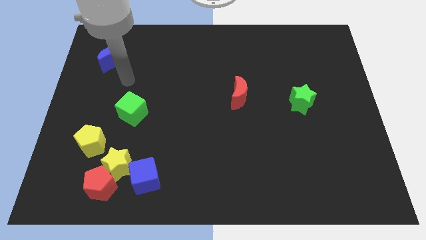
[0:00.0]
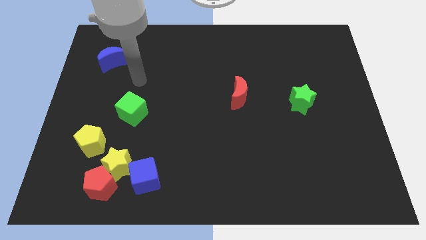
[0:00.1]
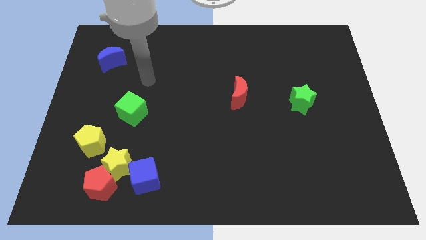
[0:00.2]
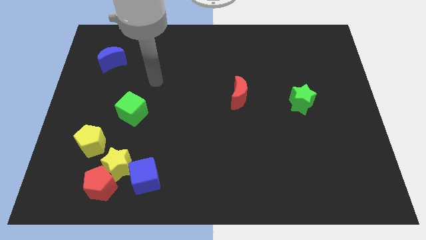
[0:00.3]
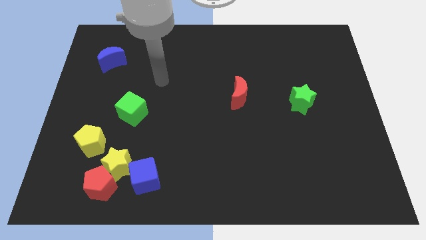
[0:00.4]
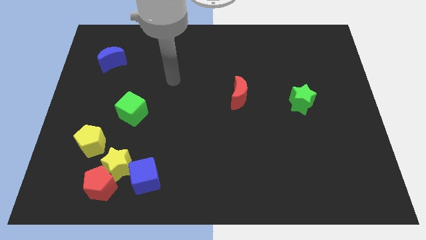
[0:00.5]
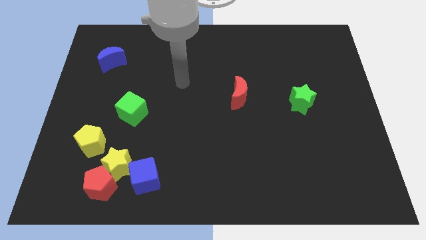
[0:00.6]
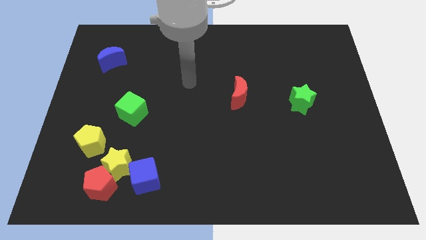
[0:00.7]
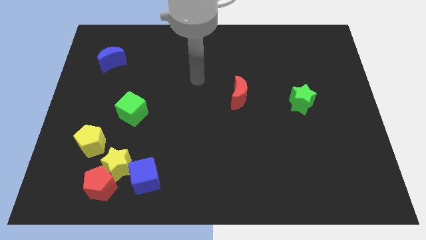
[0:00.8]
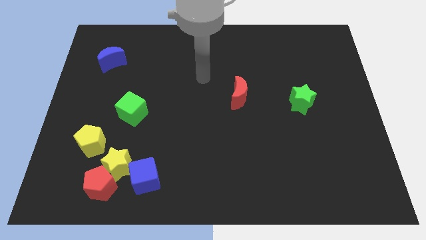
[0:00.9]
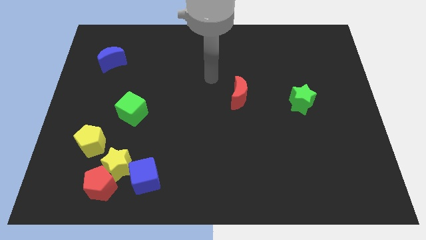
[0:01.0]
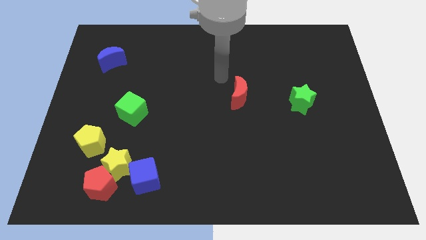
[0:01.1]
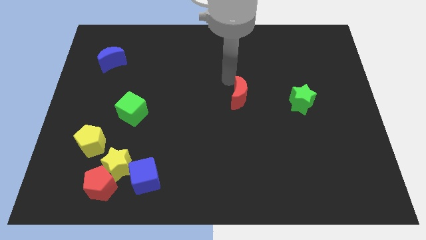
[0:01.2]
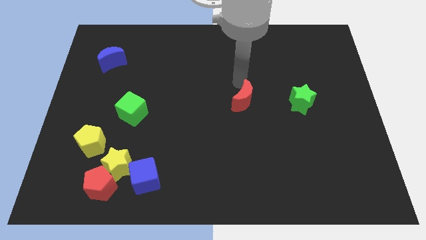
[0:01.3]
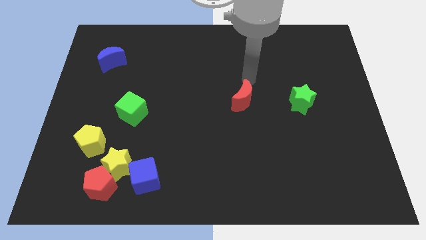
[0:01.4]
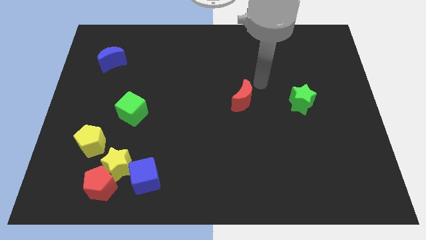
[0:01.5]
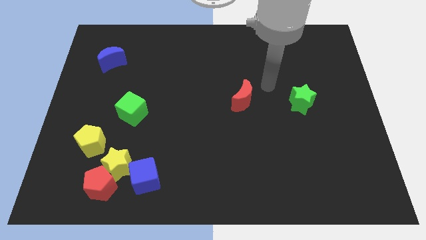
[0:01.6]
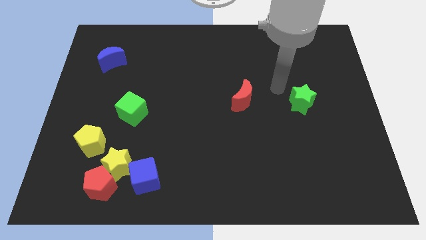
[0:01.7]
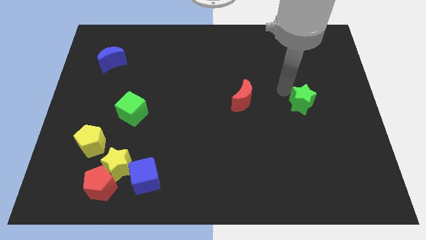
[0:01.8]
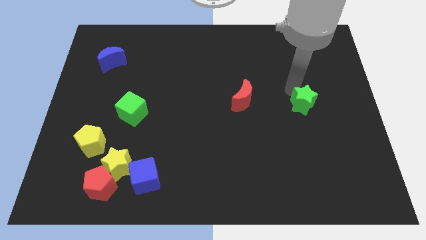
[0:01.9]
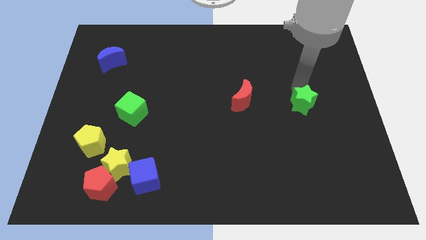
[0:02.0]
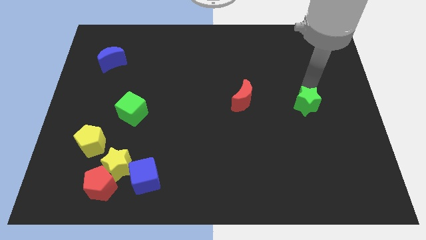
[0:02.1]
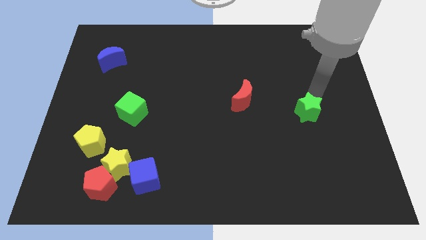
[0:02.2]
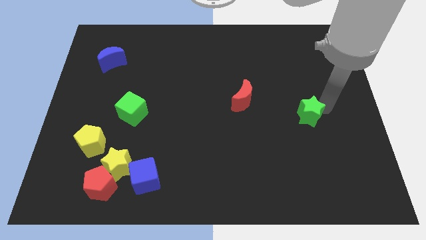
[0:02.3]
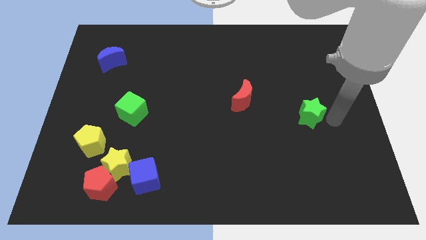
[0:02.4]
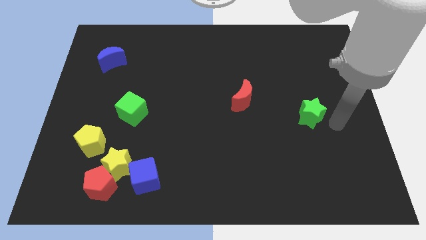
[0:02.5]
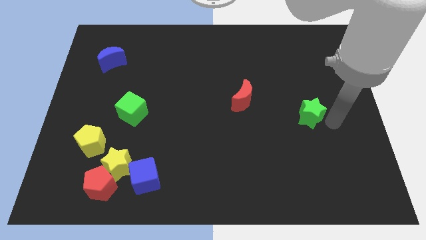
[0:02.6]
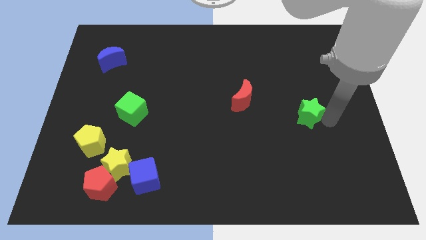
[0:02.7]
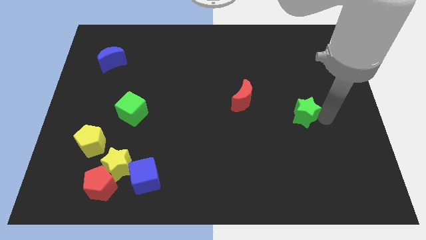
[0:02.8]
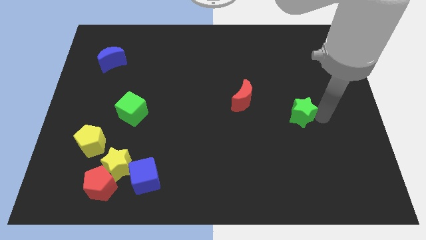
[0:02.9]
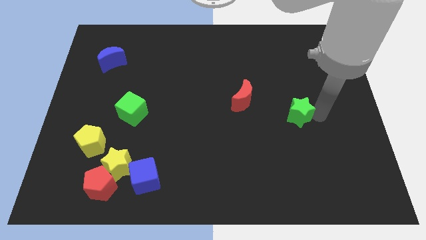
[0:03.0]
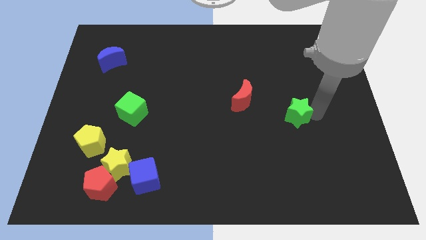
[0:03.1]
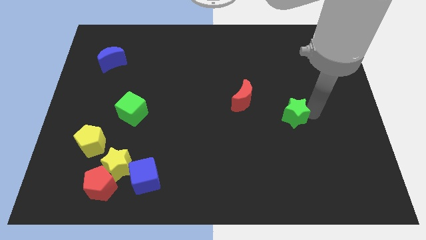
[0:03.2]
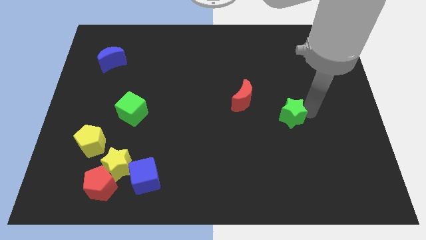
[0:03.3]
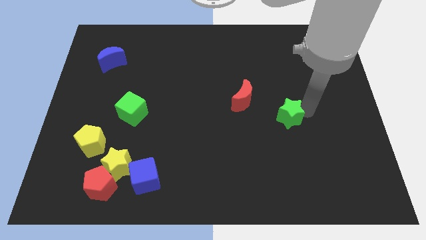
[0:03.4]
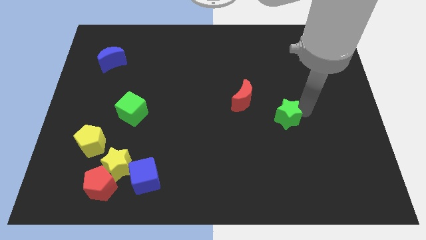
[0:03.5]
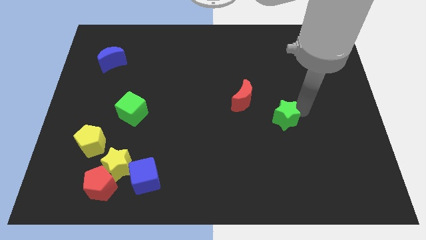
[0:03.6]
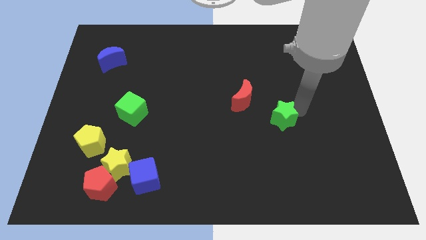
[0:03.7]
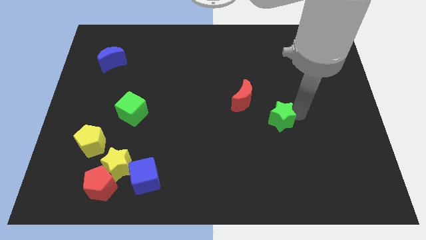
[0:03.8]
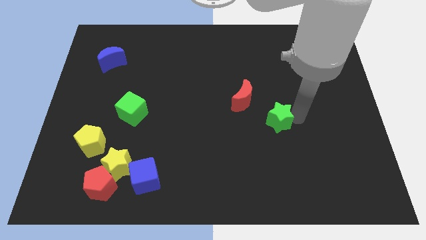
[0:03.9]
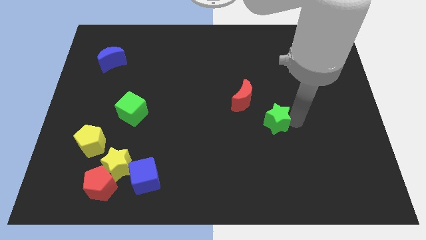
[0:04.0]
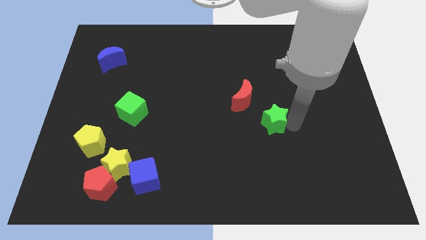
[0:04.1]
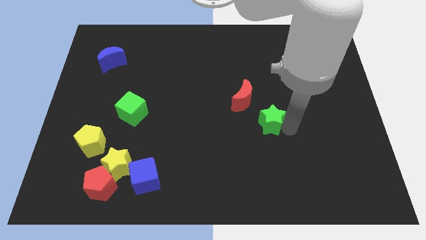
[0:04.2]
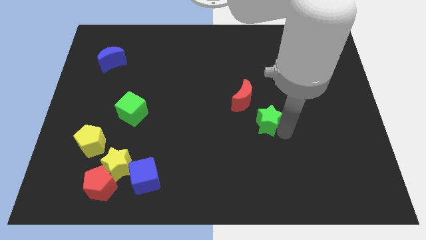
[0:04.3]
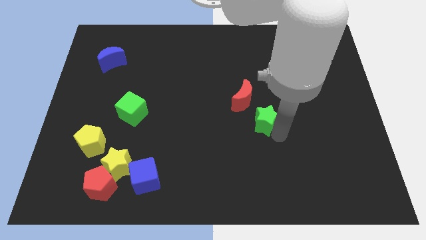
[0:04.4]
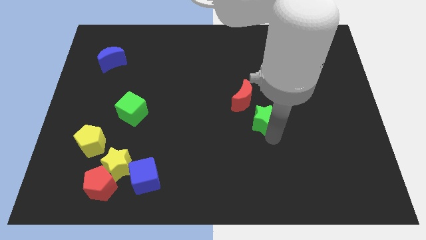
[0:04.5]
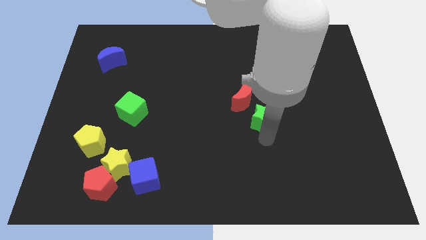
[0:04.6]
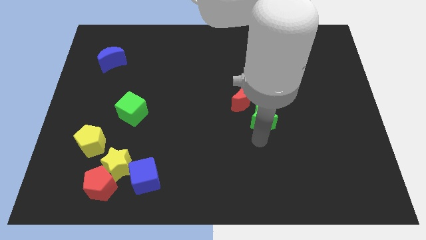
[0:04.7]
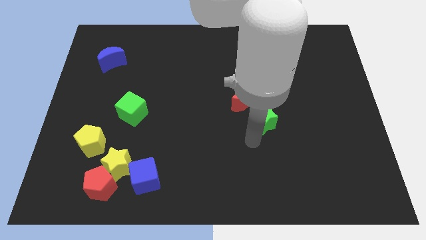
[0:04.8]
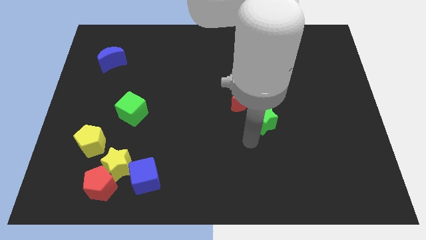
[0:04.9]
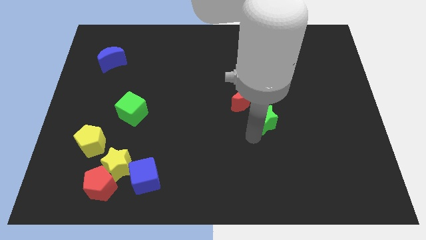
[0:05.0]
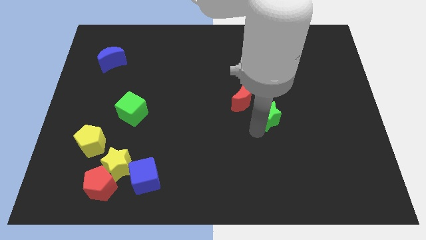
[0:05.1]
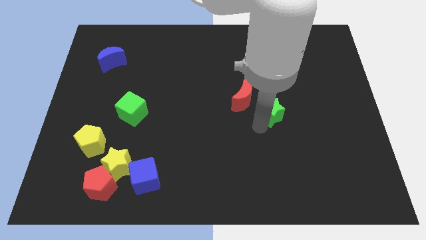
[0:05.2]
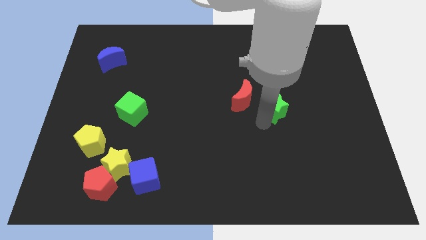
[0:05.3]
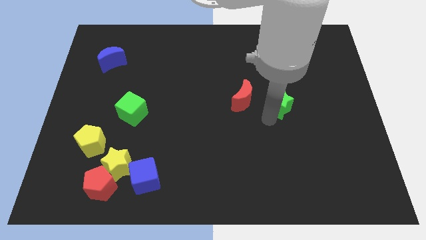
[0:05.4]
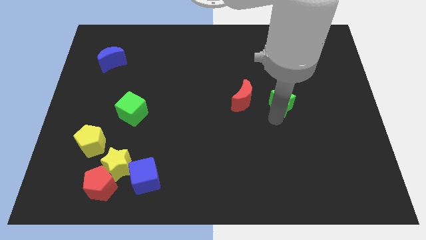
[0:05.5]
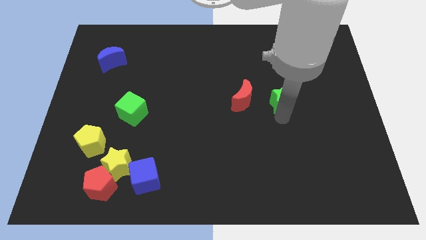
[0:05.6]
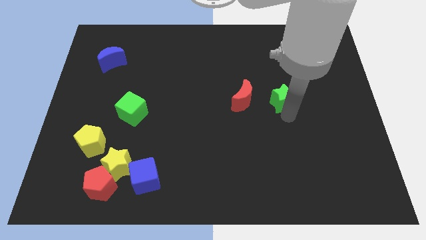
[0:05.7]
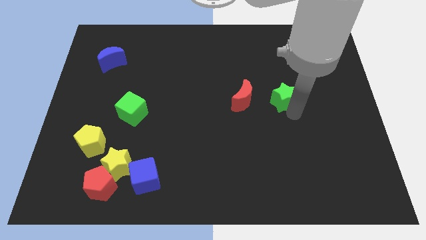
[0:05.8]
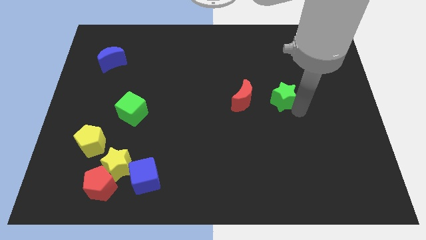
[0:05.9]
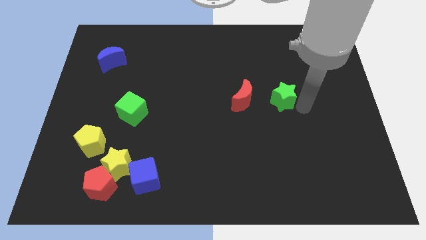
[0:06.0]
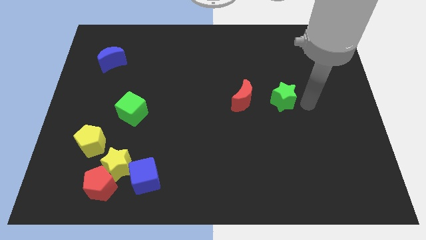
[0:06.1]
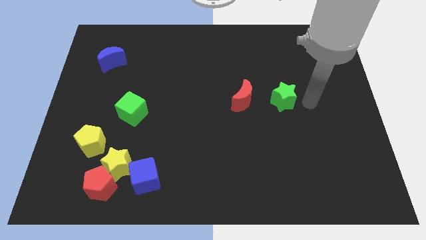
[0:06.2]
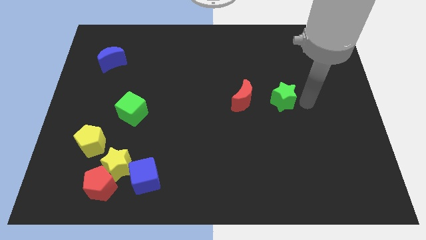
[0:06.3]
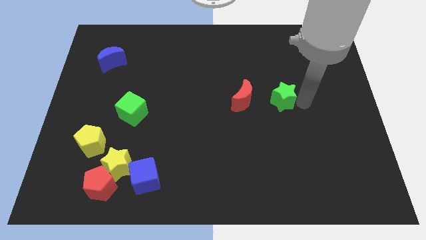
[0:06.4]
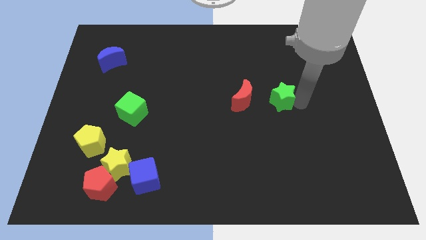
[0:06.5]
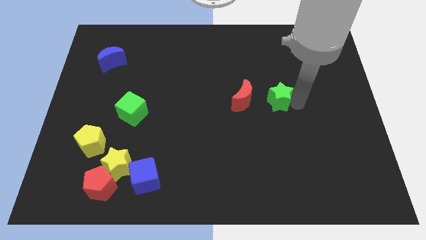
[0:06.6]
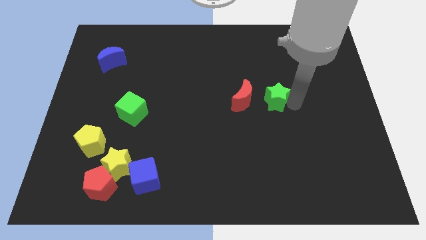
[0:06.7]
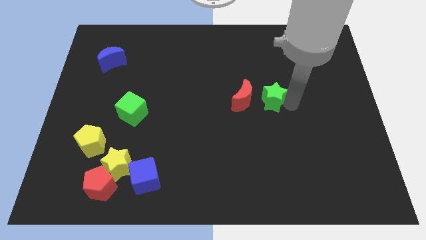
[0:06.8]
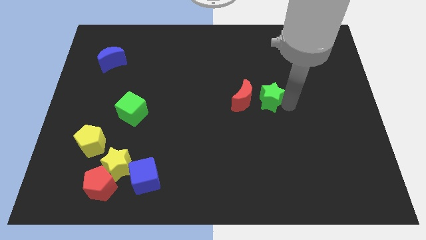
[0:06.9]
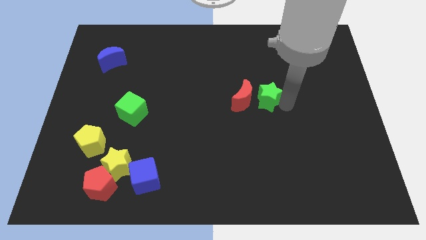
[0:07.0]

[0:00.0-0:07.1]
move the green star to the red moon

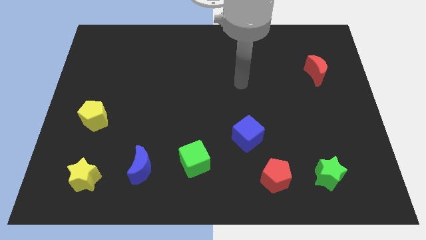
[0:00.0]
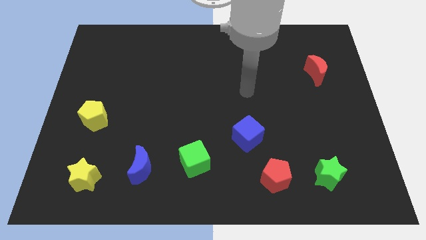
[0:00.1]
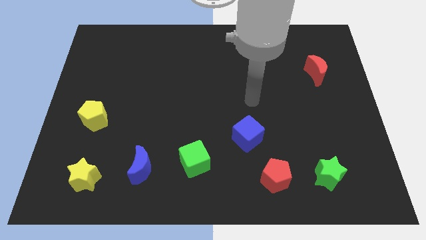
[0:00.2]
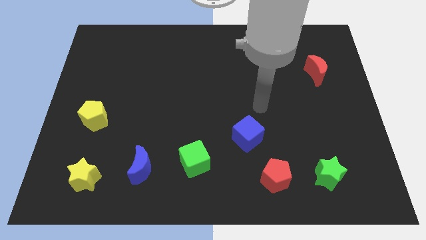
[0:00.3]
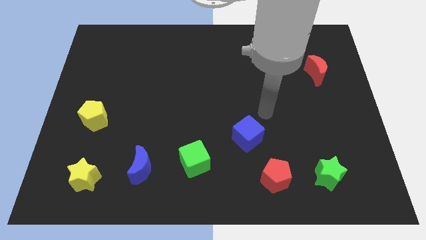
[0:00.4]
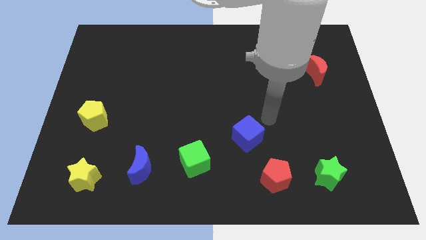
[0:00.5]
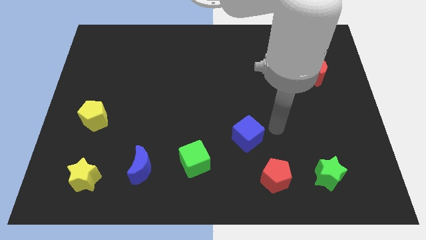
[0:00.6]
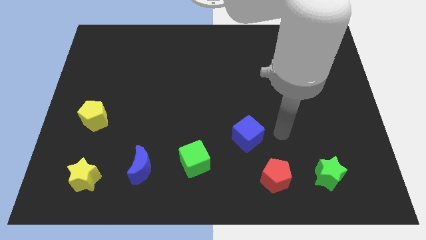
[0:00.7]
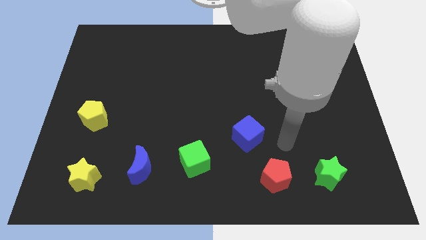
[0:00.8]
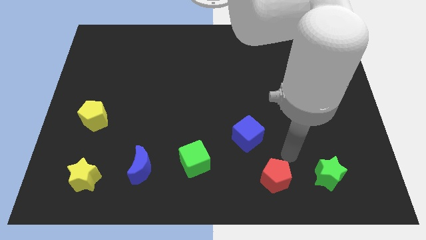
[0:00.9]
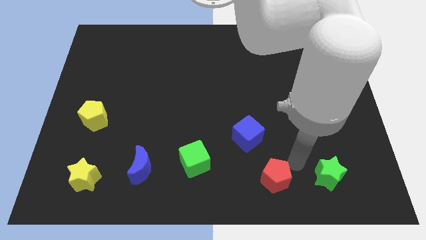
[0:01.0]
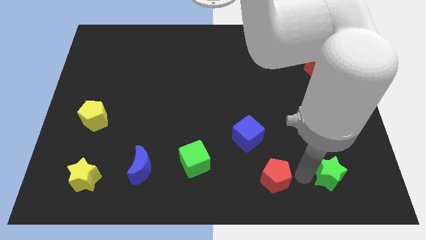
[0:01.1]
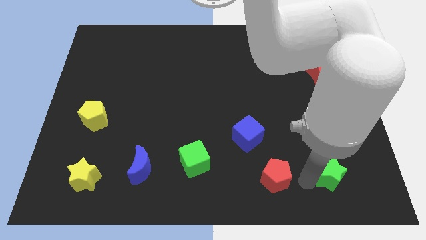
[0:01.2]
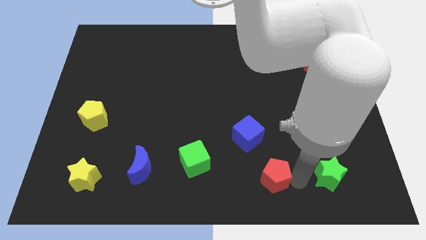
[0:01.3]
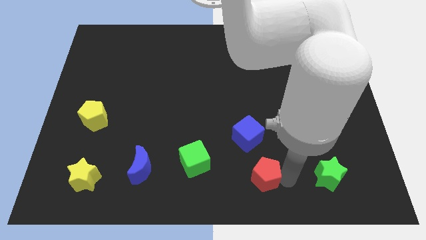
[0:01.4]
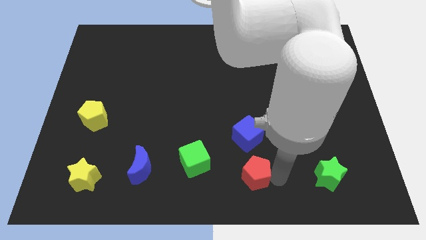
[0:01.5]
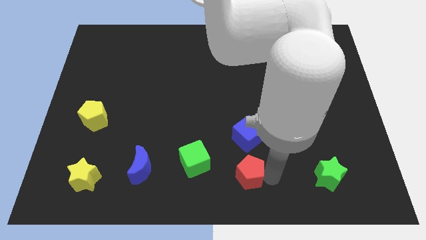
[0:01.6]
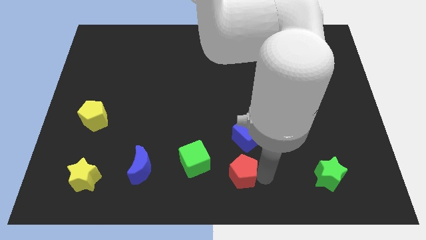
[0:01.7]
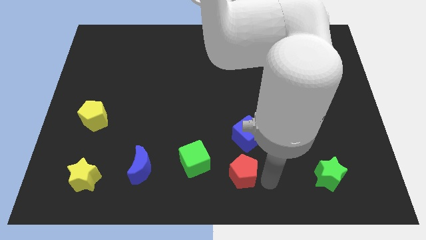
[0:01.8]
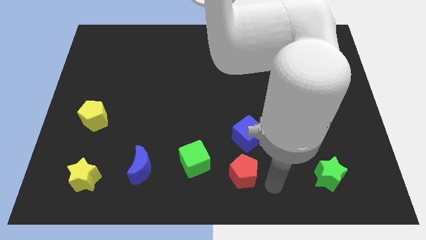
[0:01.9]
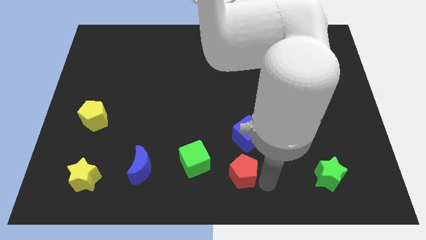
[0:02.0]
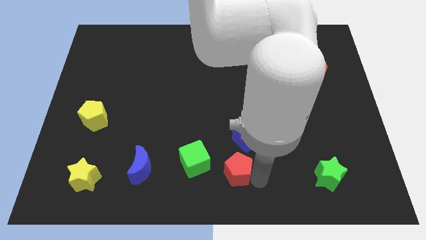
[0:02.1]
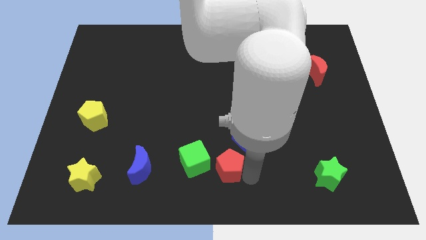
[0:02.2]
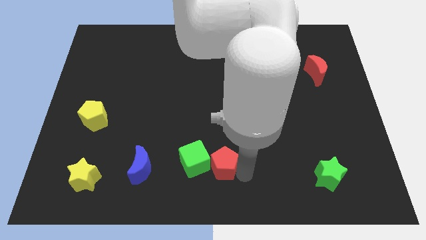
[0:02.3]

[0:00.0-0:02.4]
move the red pentagon to the green cube
